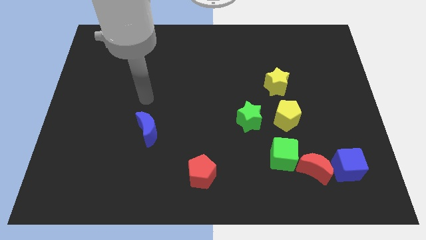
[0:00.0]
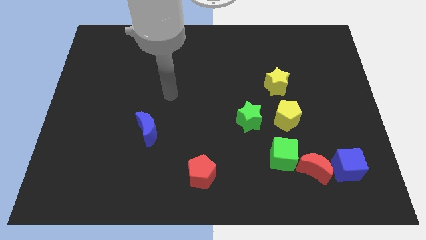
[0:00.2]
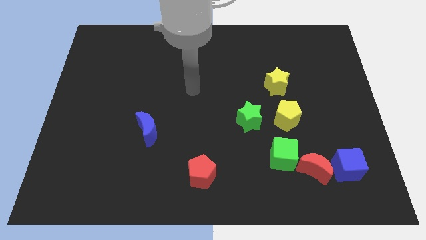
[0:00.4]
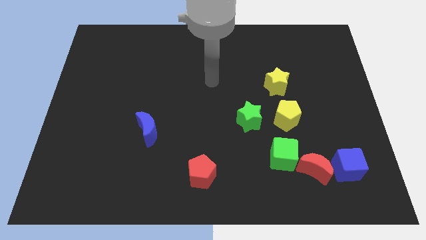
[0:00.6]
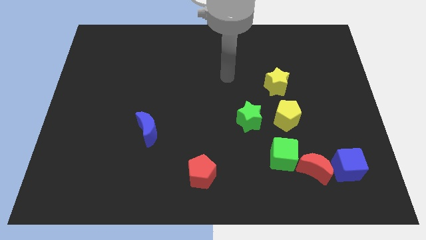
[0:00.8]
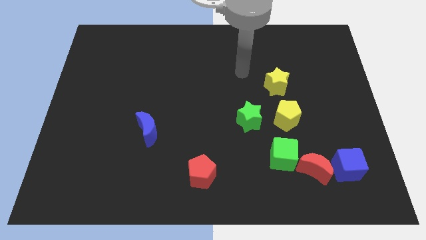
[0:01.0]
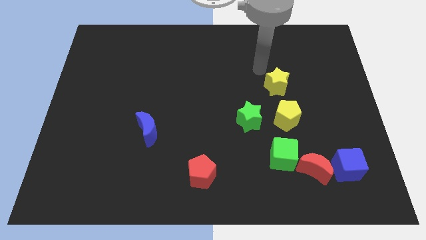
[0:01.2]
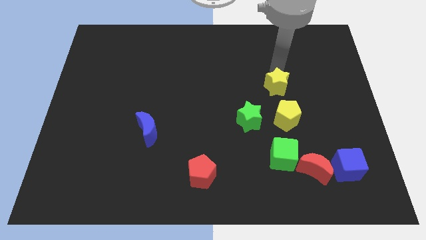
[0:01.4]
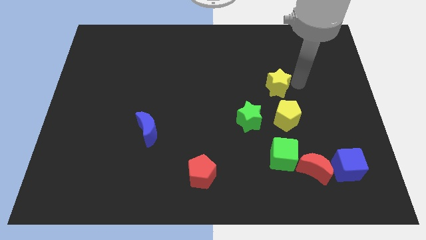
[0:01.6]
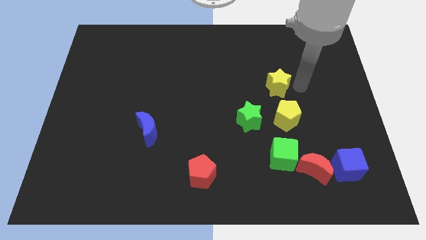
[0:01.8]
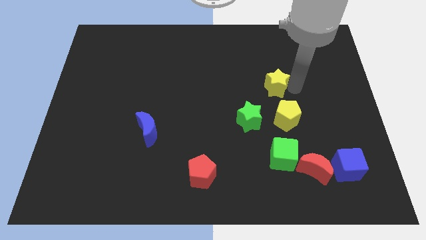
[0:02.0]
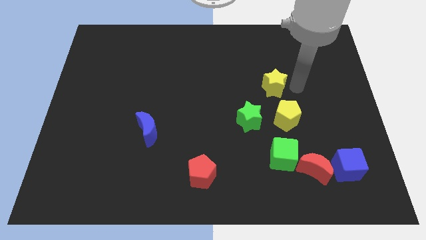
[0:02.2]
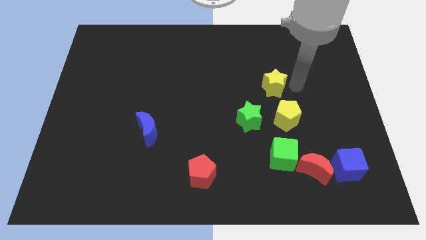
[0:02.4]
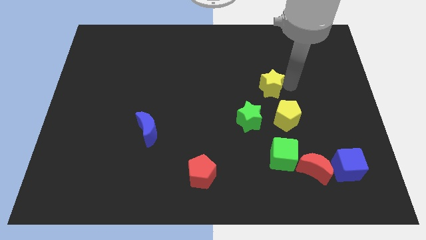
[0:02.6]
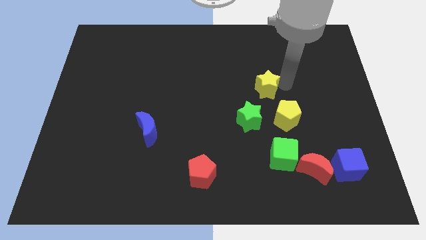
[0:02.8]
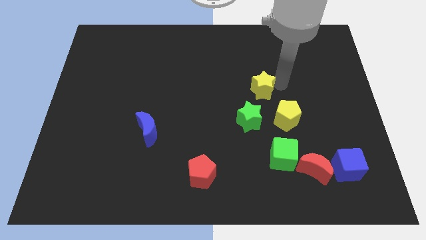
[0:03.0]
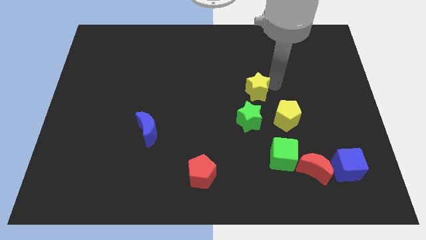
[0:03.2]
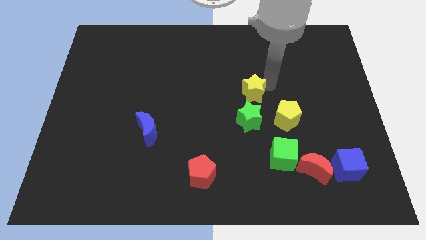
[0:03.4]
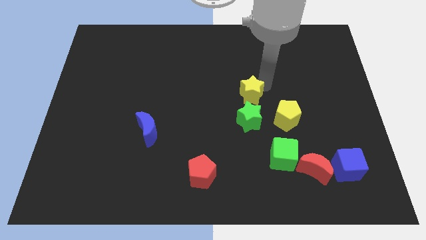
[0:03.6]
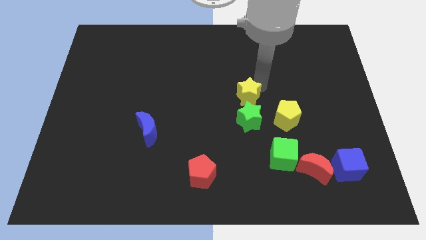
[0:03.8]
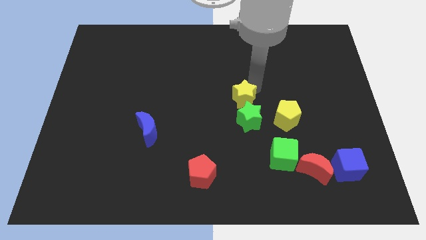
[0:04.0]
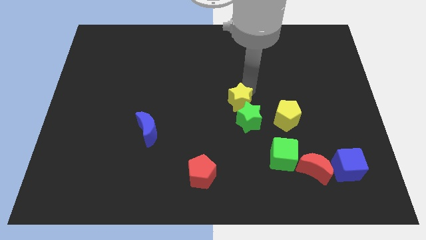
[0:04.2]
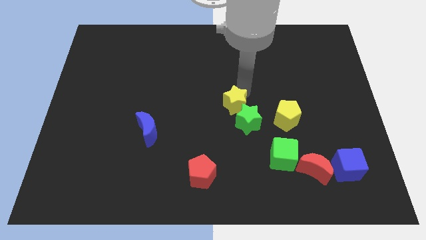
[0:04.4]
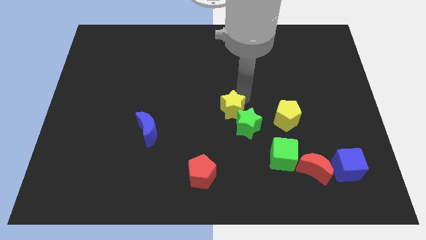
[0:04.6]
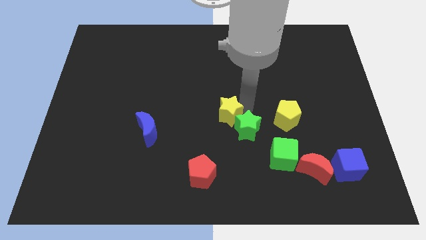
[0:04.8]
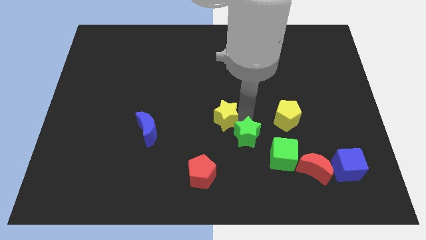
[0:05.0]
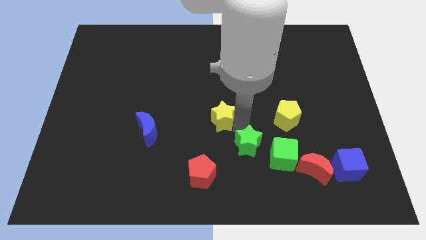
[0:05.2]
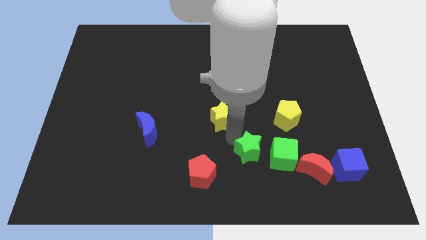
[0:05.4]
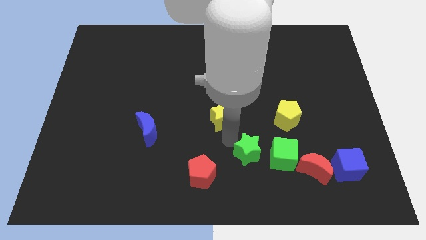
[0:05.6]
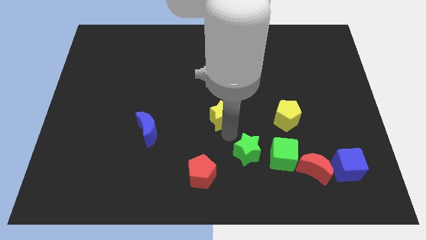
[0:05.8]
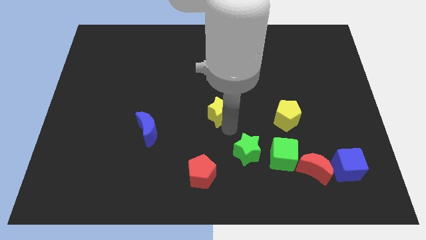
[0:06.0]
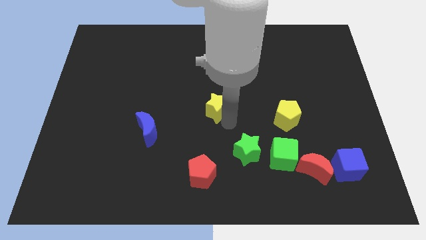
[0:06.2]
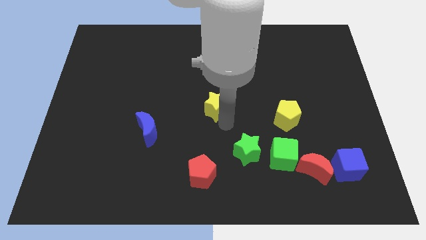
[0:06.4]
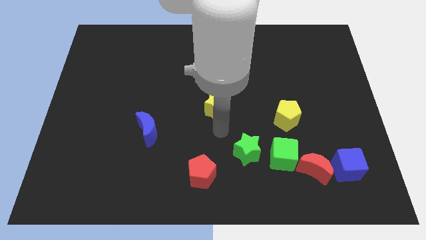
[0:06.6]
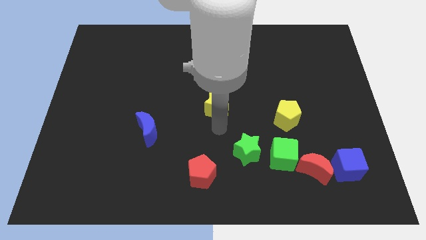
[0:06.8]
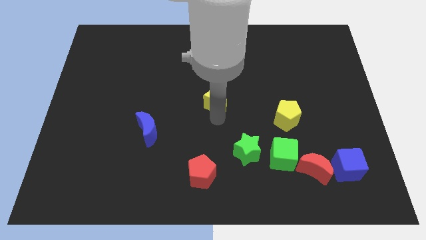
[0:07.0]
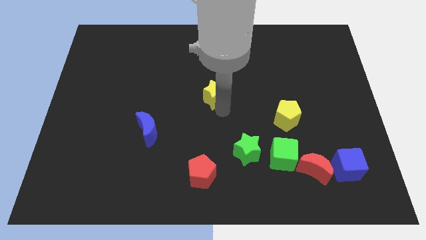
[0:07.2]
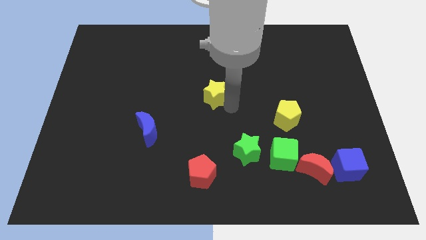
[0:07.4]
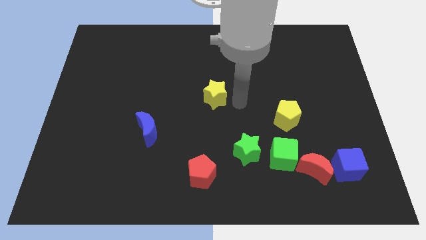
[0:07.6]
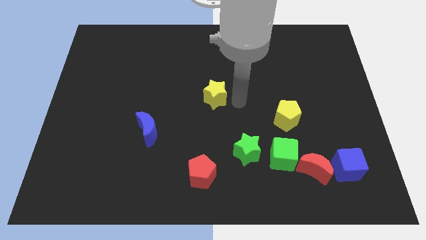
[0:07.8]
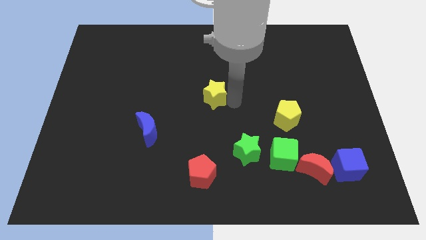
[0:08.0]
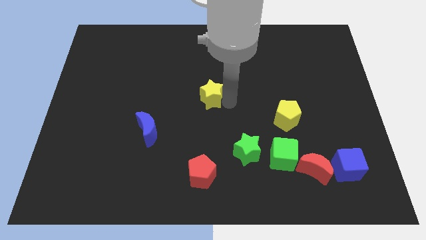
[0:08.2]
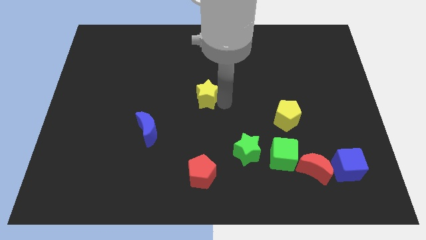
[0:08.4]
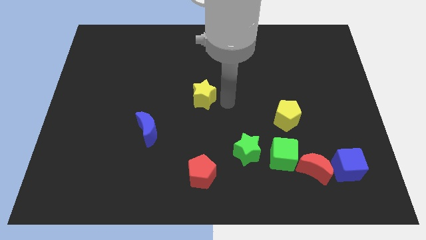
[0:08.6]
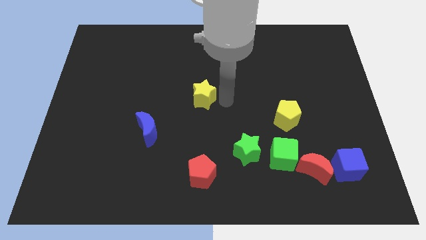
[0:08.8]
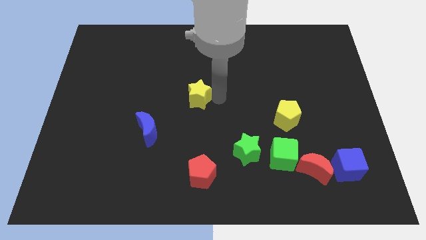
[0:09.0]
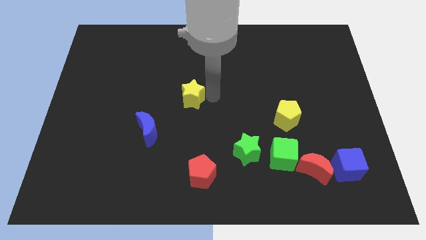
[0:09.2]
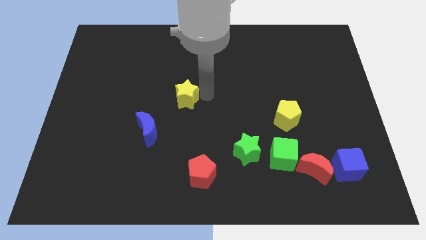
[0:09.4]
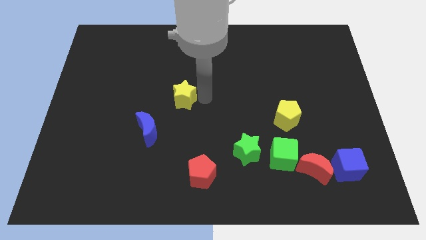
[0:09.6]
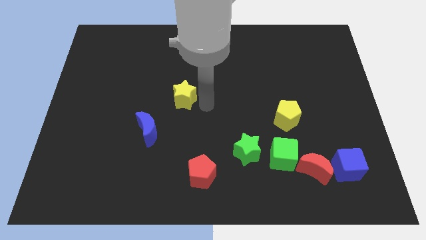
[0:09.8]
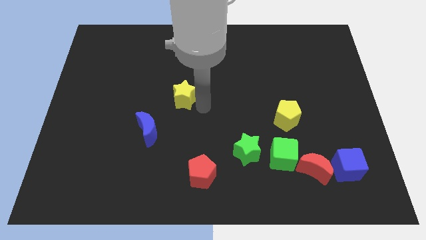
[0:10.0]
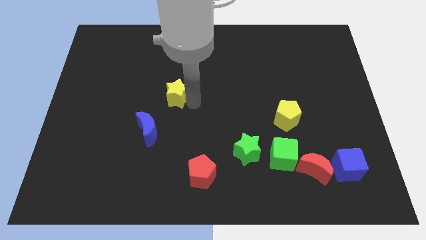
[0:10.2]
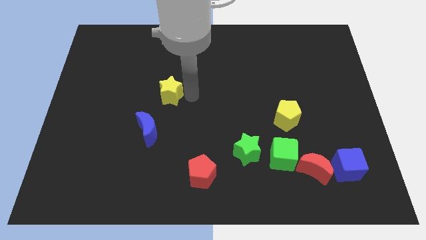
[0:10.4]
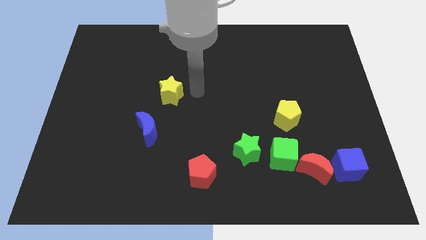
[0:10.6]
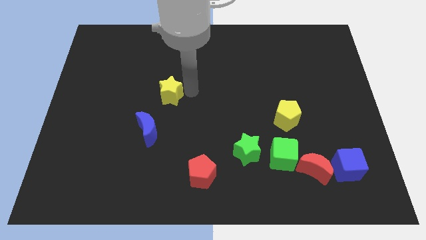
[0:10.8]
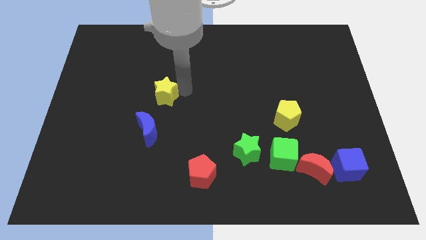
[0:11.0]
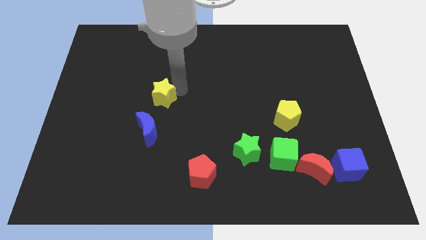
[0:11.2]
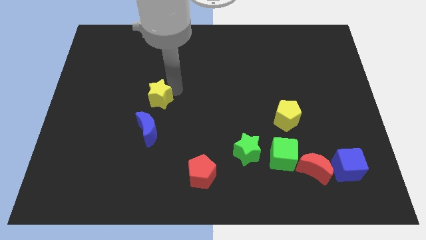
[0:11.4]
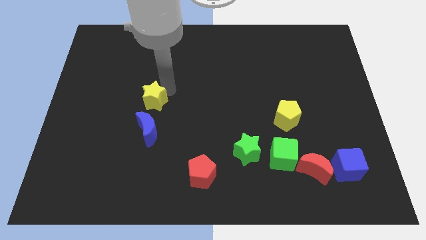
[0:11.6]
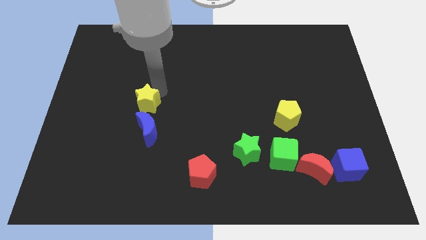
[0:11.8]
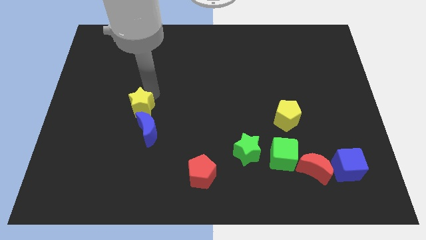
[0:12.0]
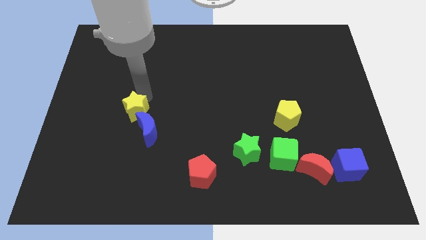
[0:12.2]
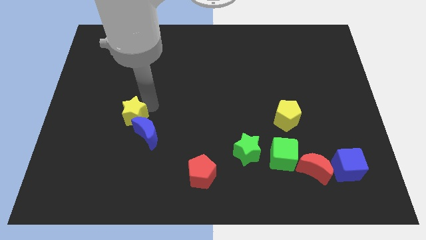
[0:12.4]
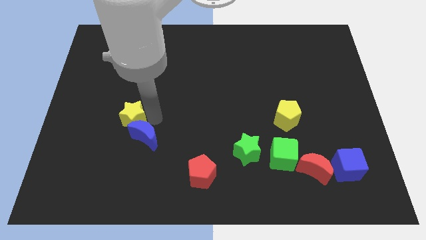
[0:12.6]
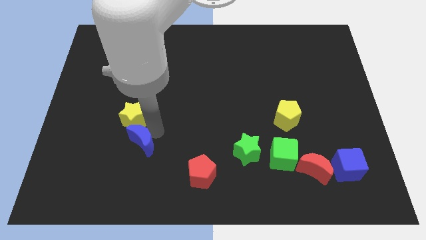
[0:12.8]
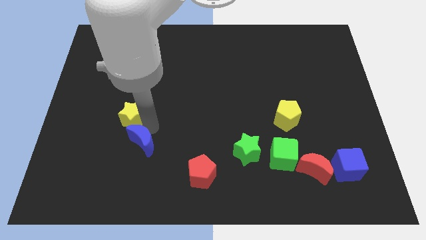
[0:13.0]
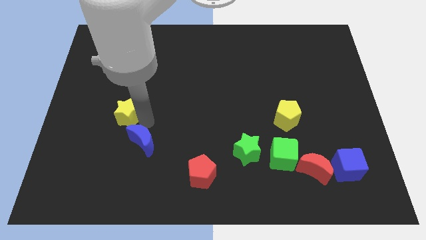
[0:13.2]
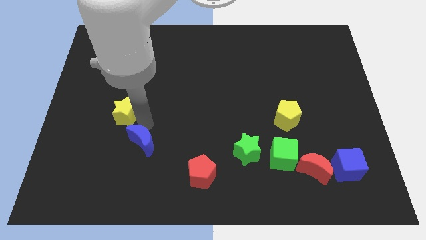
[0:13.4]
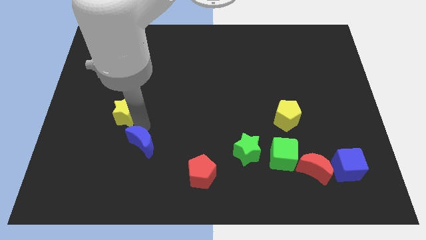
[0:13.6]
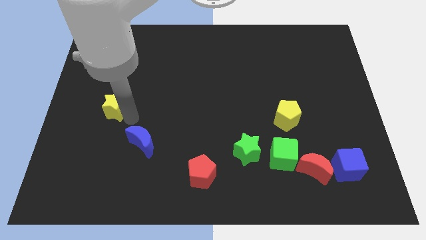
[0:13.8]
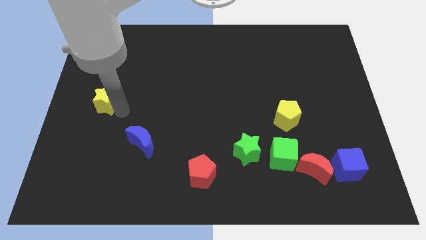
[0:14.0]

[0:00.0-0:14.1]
slide the yellow star to the center left
